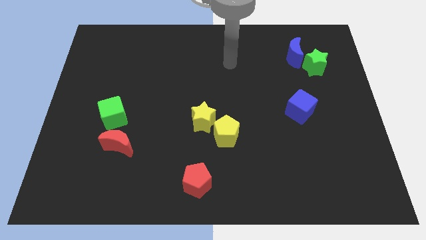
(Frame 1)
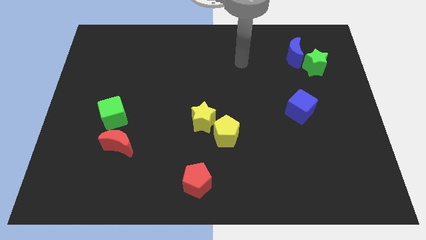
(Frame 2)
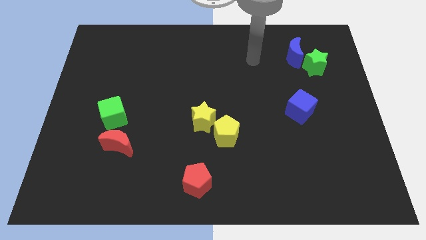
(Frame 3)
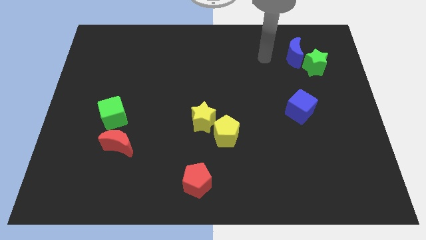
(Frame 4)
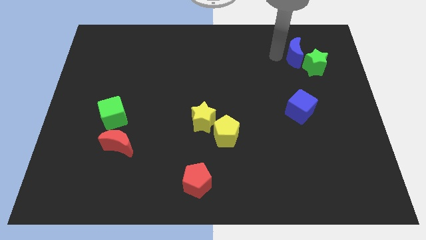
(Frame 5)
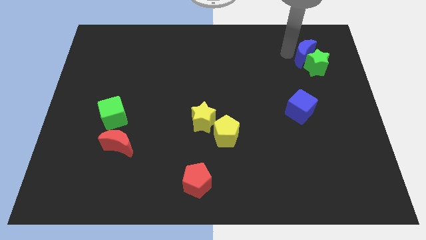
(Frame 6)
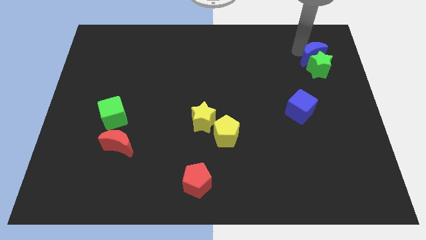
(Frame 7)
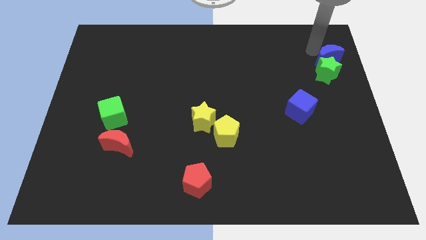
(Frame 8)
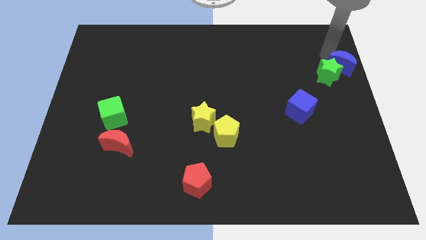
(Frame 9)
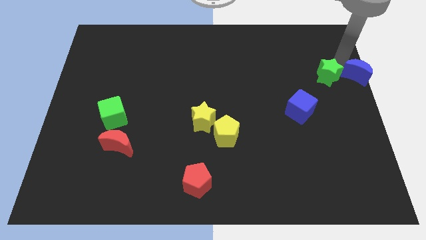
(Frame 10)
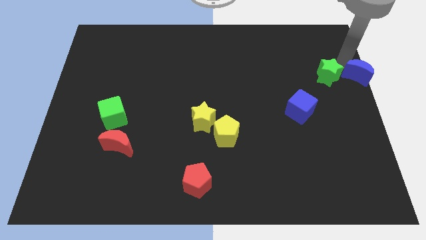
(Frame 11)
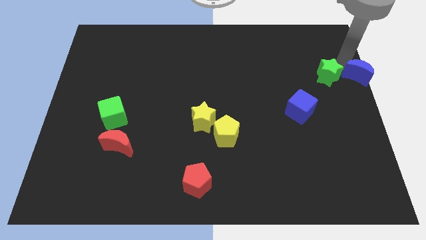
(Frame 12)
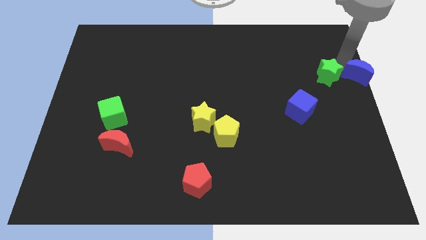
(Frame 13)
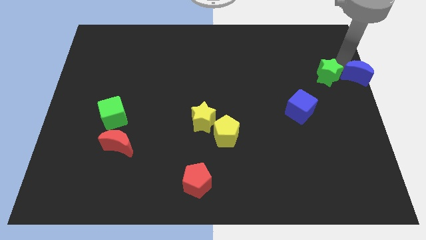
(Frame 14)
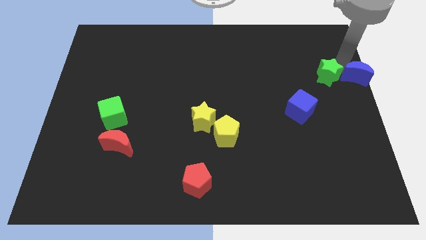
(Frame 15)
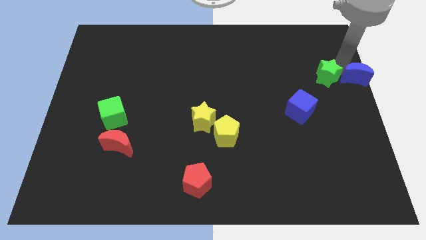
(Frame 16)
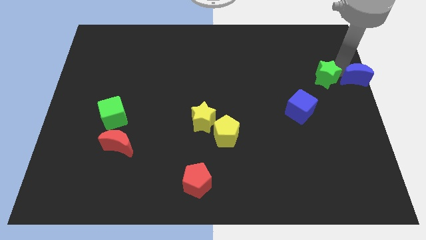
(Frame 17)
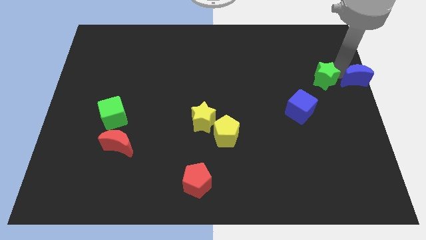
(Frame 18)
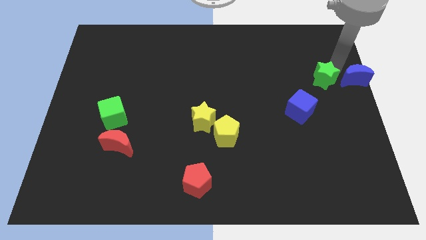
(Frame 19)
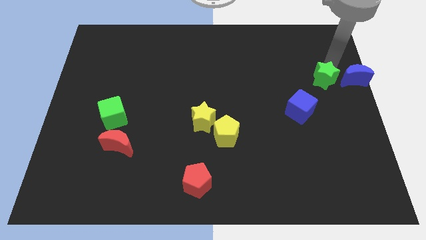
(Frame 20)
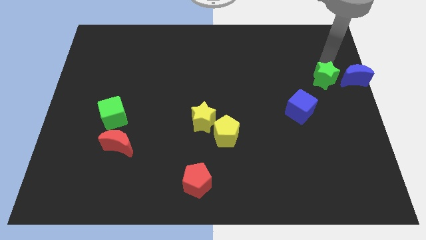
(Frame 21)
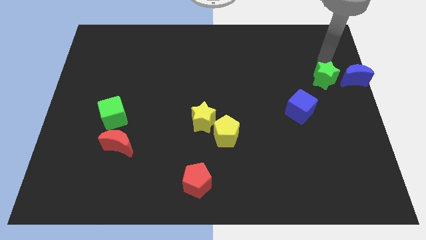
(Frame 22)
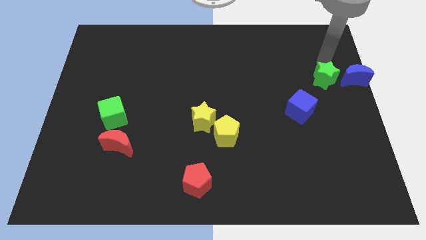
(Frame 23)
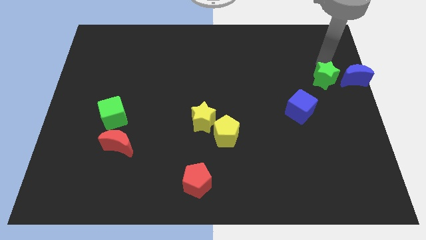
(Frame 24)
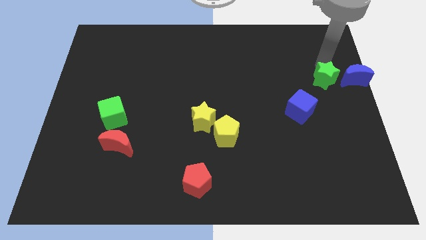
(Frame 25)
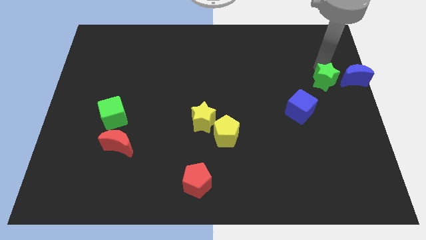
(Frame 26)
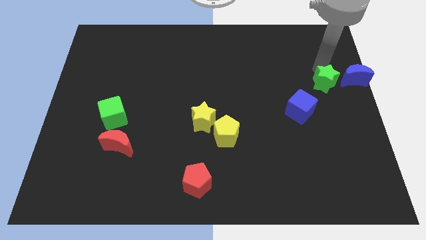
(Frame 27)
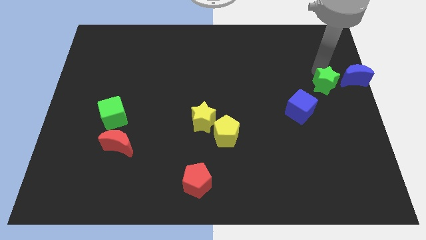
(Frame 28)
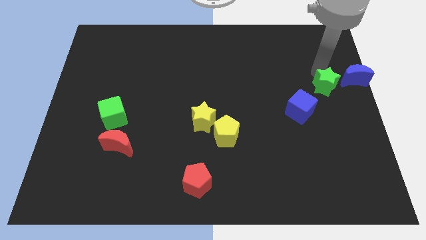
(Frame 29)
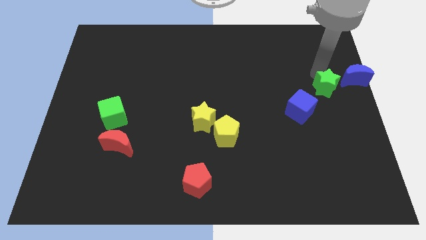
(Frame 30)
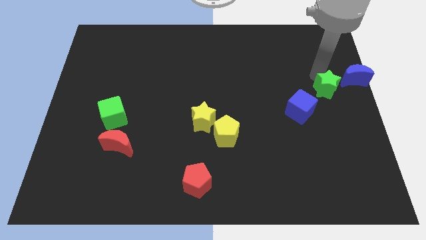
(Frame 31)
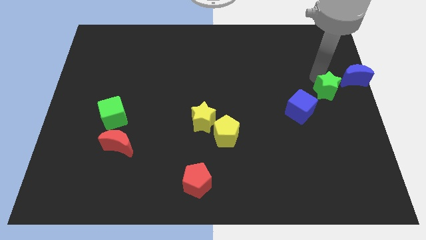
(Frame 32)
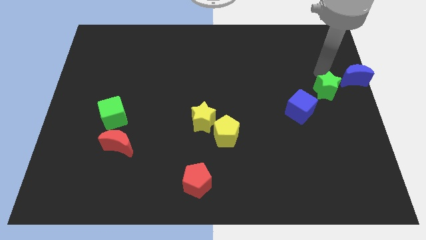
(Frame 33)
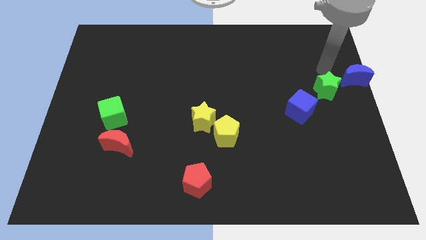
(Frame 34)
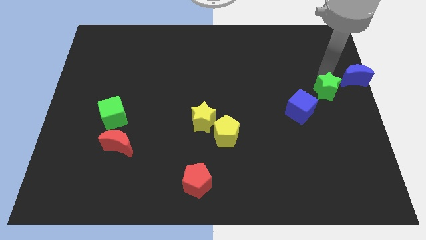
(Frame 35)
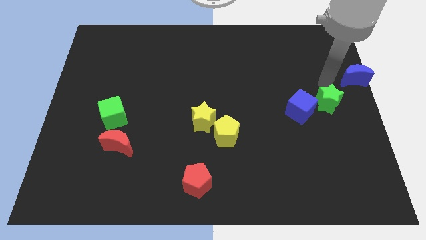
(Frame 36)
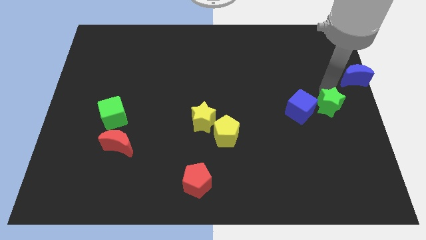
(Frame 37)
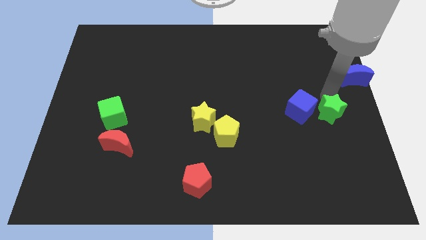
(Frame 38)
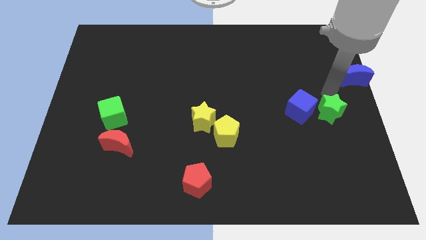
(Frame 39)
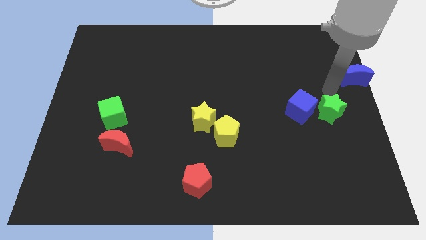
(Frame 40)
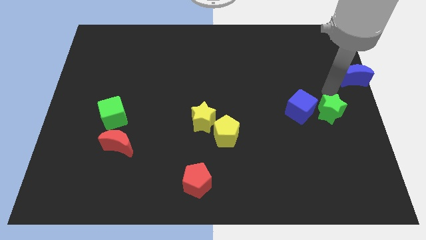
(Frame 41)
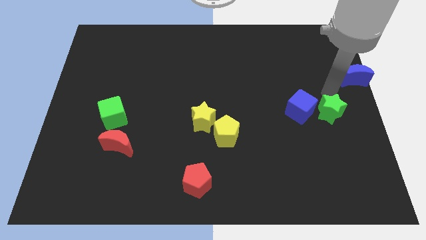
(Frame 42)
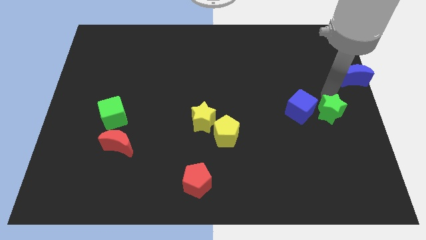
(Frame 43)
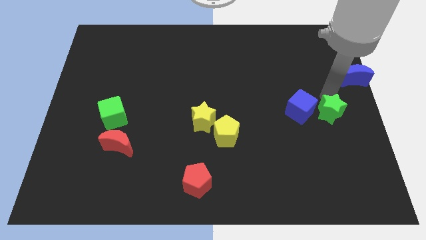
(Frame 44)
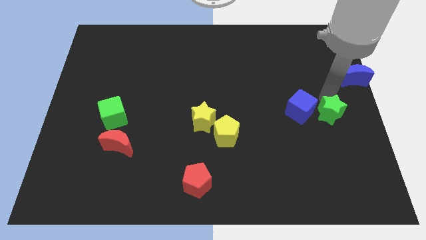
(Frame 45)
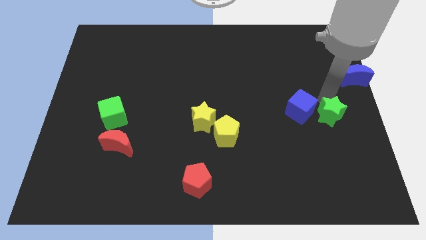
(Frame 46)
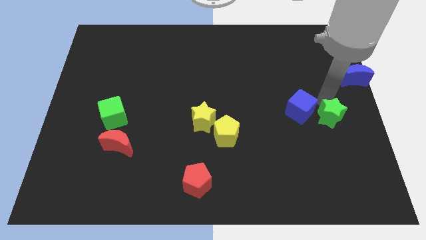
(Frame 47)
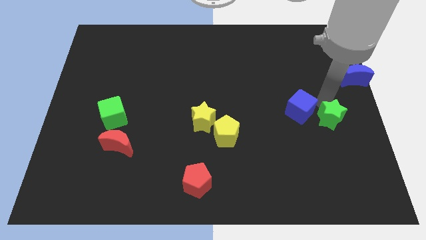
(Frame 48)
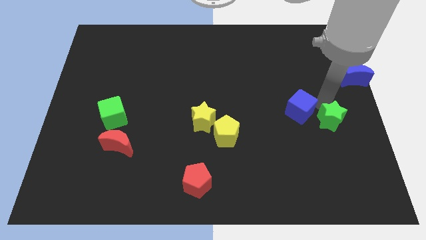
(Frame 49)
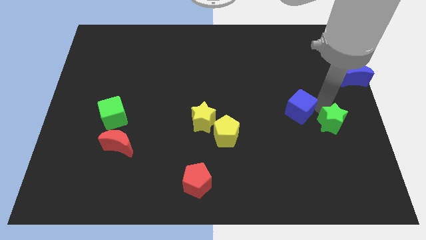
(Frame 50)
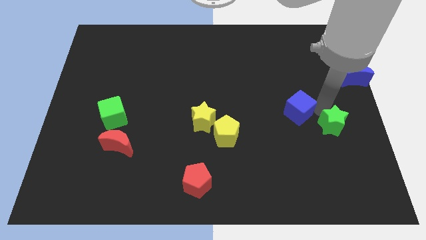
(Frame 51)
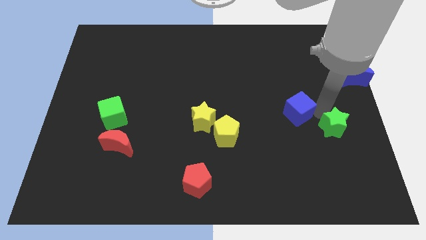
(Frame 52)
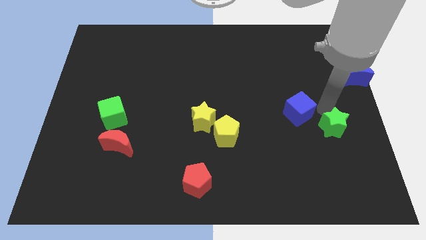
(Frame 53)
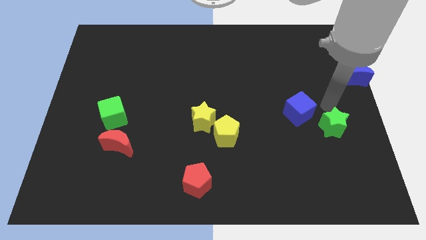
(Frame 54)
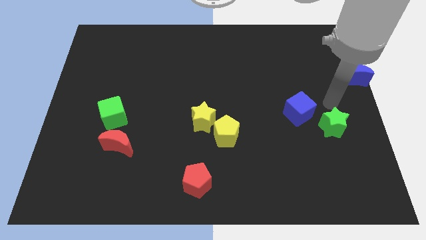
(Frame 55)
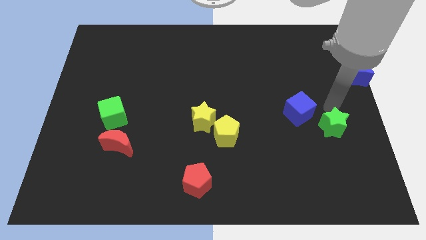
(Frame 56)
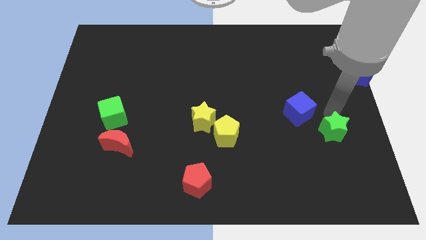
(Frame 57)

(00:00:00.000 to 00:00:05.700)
push the green star downwards

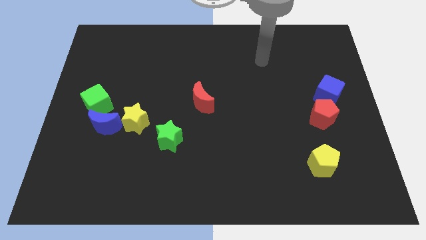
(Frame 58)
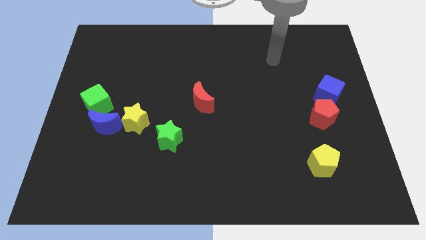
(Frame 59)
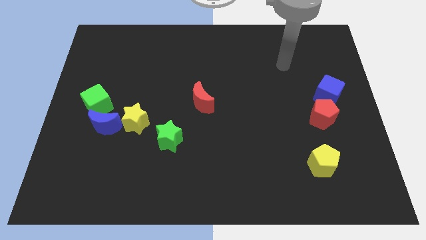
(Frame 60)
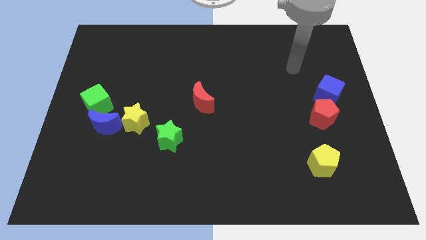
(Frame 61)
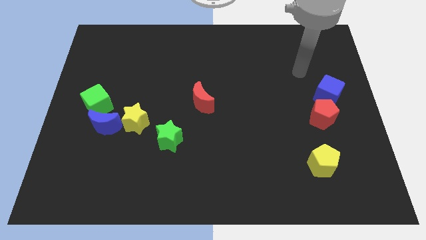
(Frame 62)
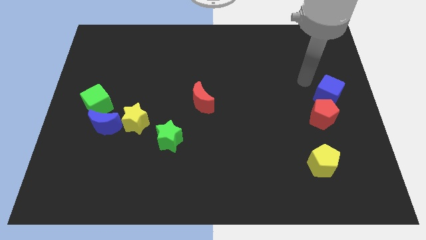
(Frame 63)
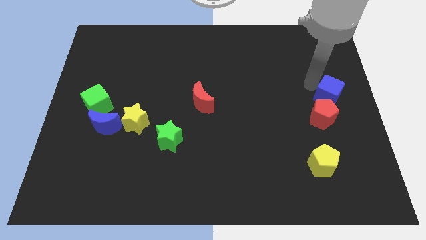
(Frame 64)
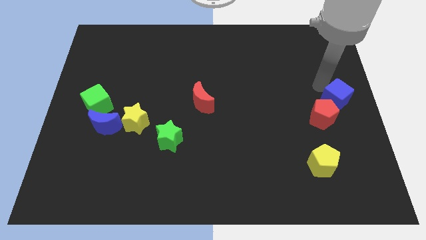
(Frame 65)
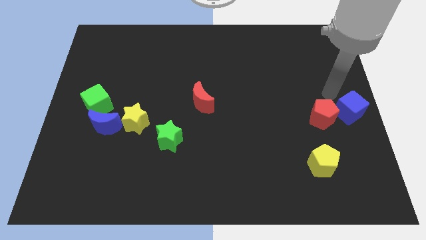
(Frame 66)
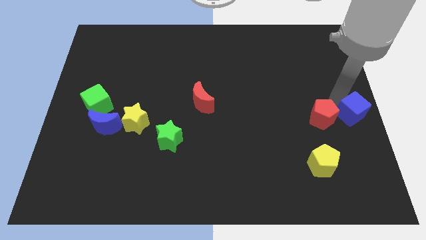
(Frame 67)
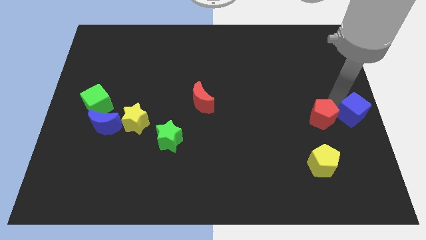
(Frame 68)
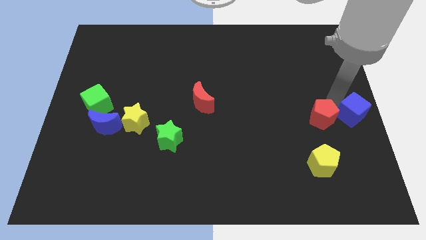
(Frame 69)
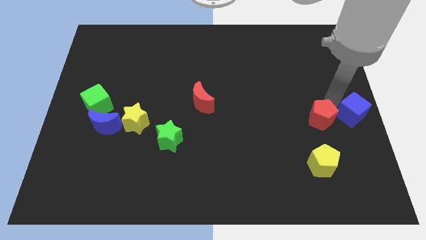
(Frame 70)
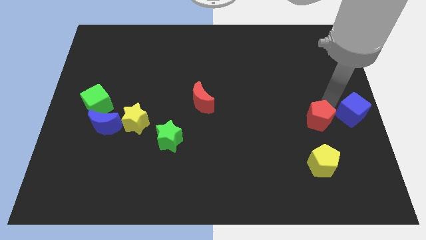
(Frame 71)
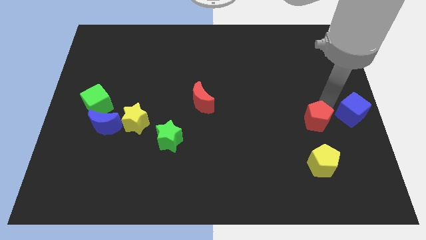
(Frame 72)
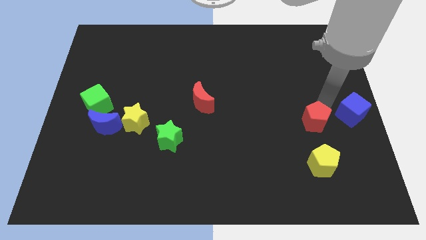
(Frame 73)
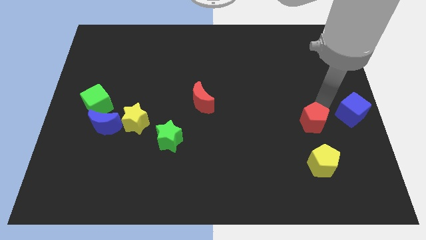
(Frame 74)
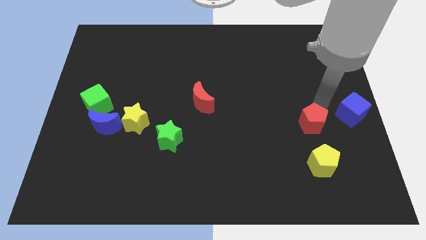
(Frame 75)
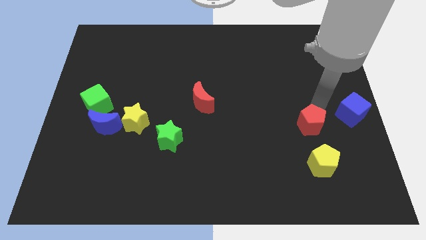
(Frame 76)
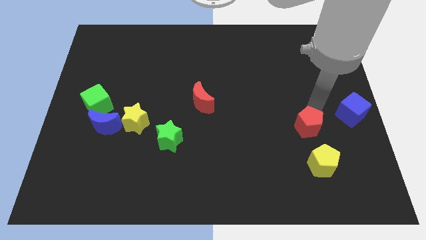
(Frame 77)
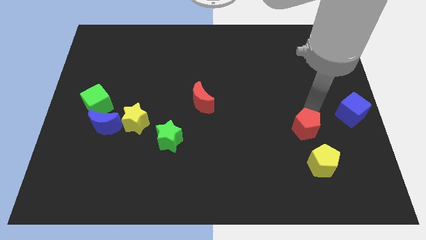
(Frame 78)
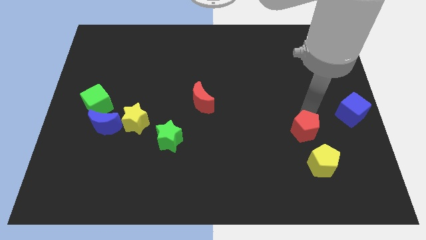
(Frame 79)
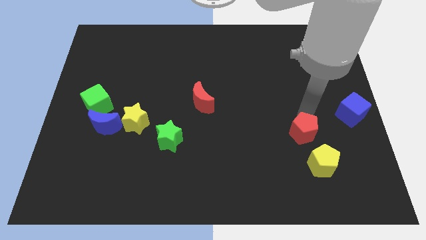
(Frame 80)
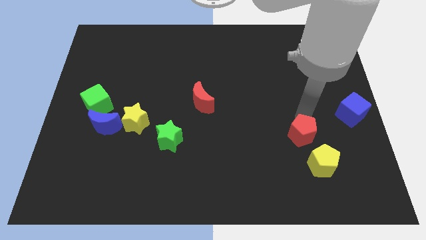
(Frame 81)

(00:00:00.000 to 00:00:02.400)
slide the red pentagon downwards and to the left diagonally slightly
